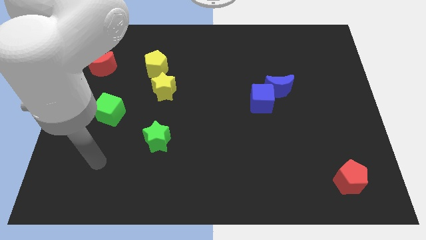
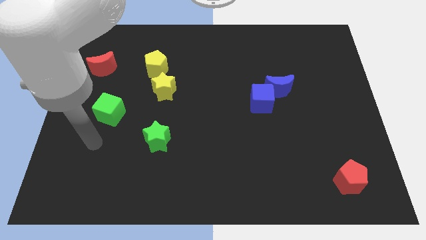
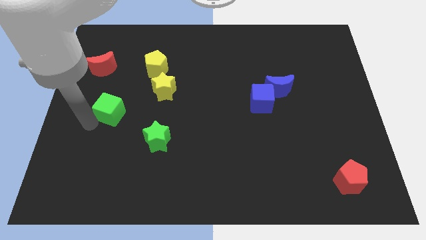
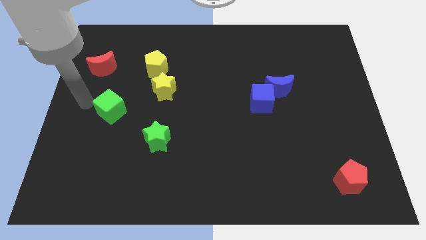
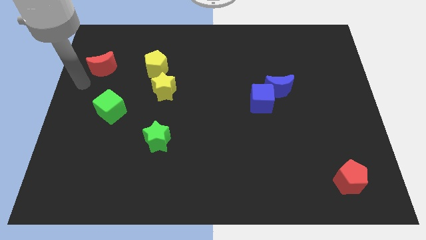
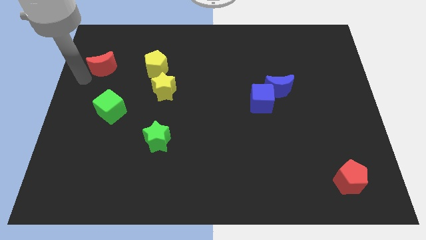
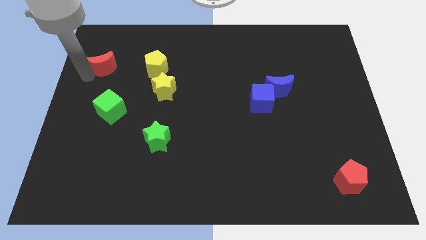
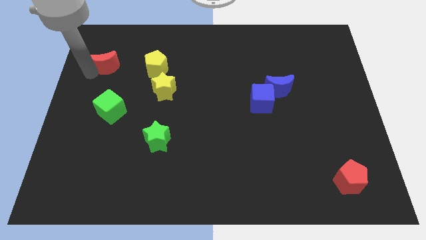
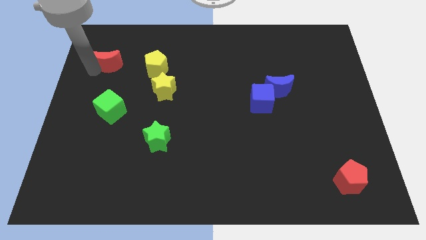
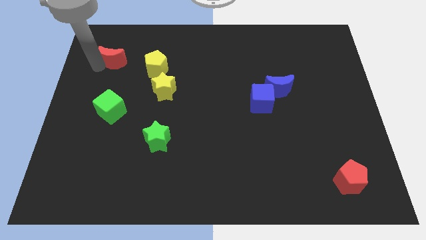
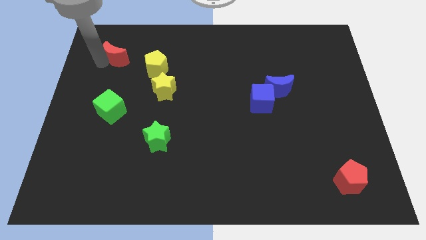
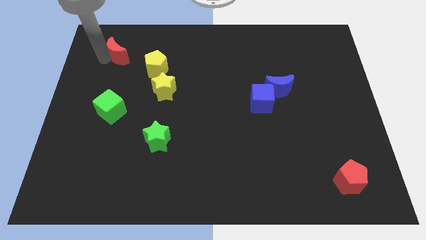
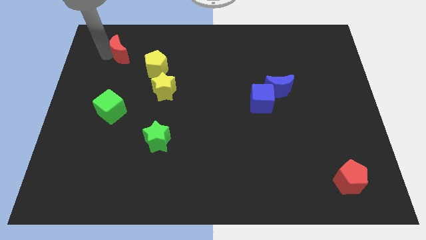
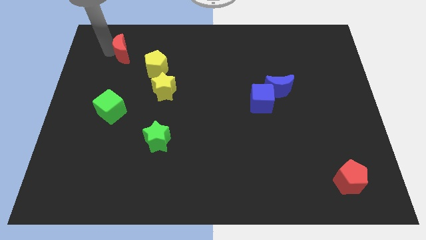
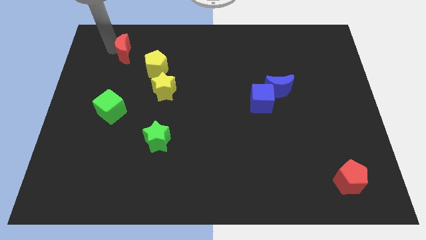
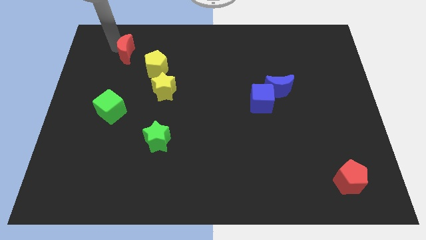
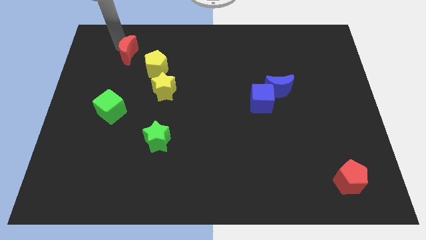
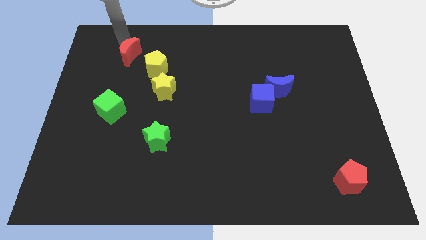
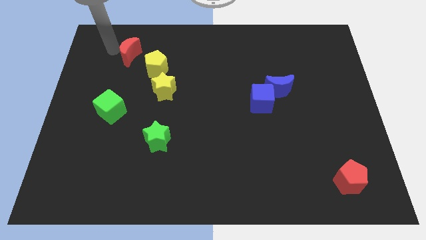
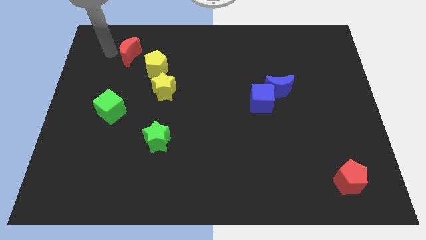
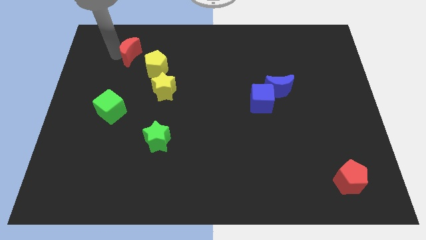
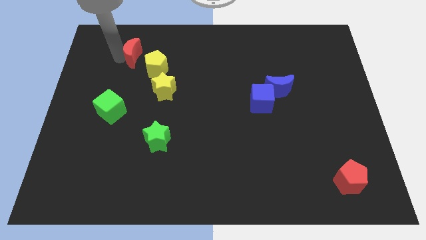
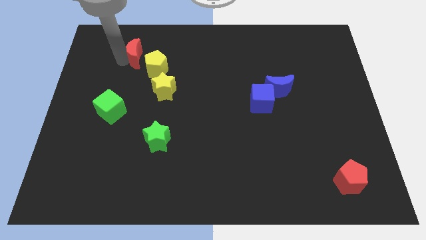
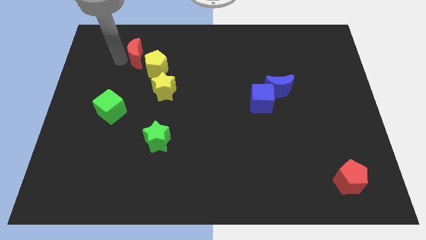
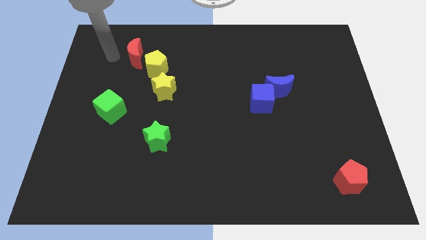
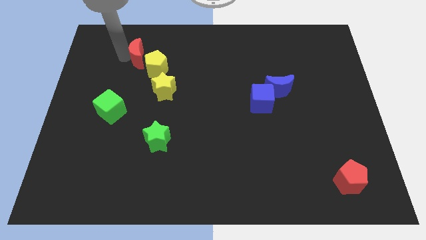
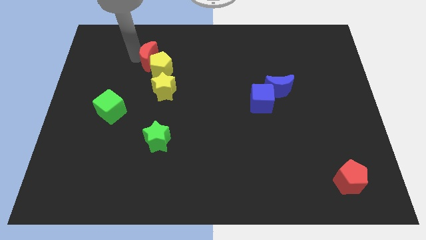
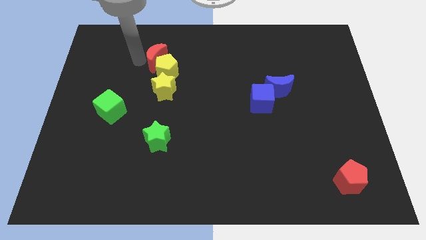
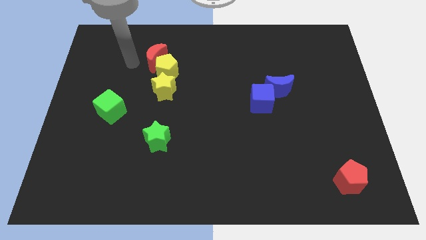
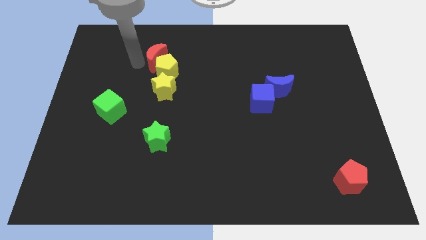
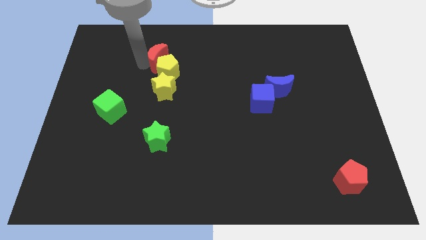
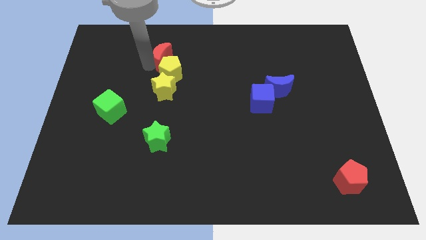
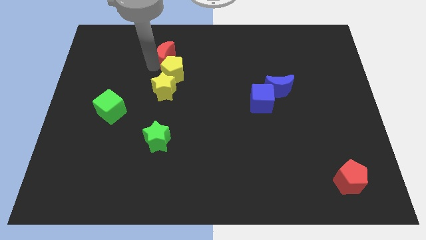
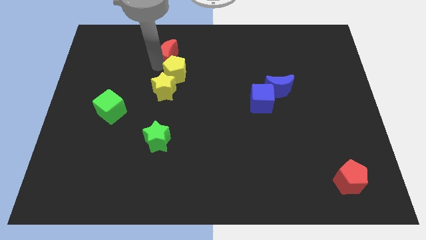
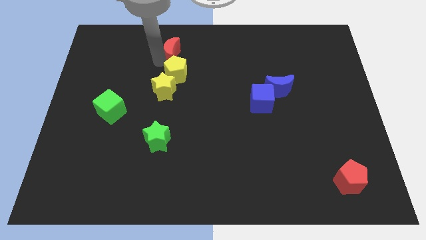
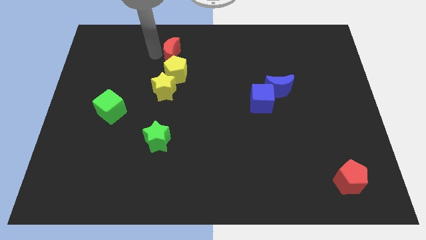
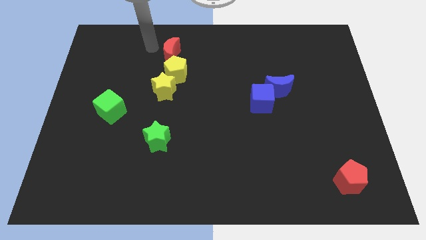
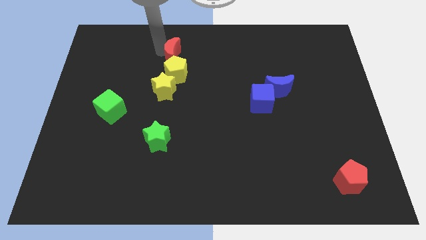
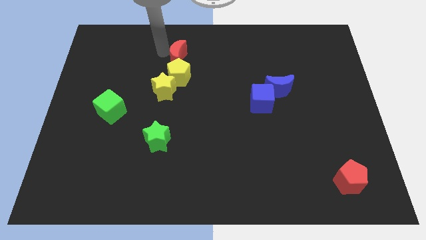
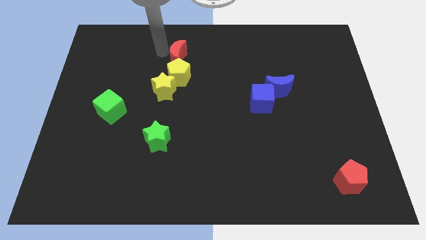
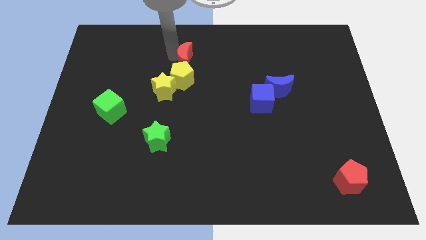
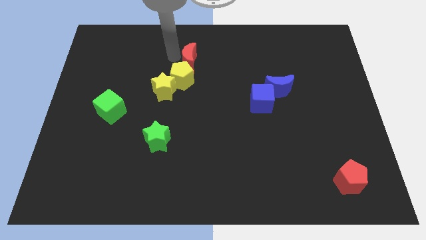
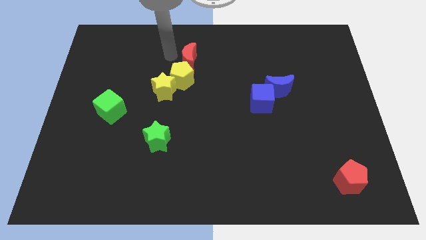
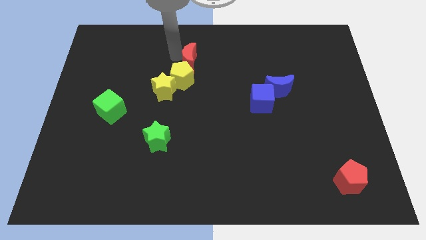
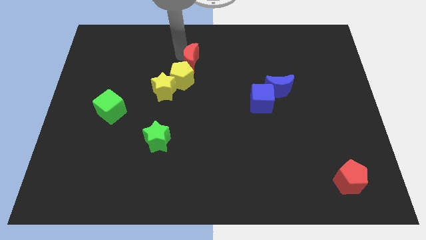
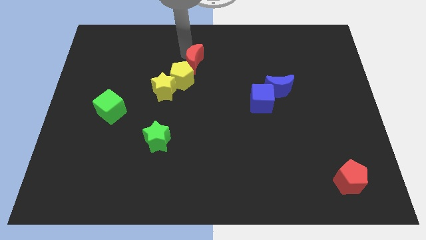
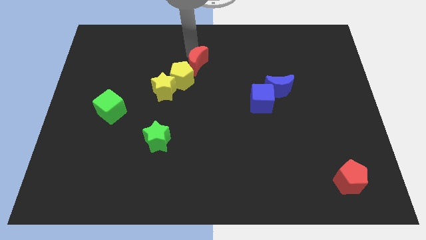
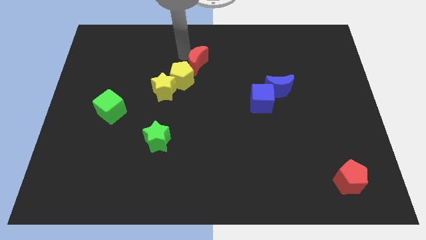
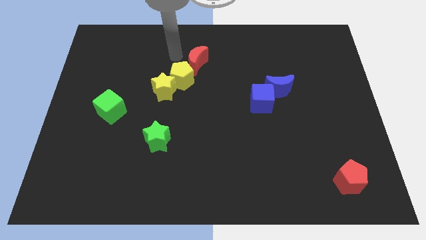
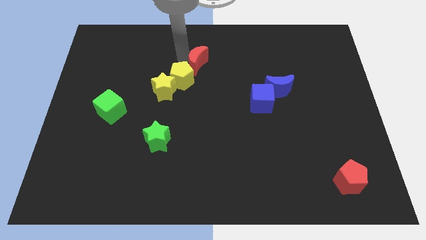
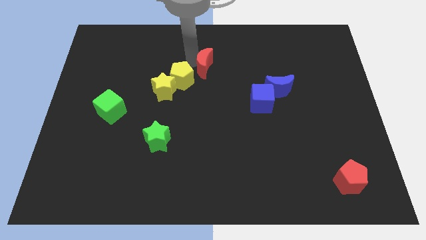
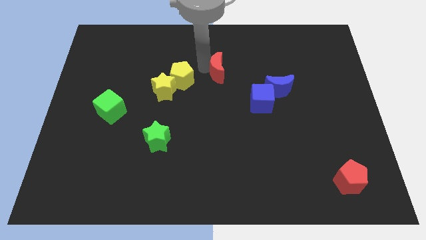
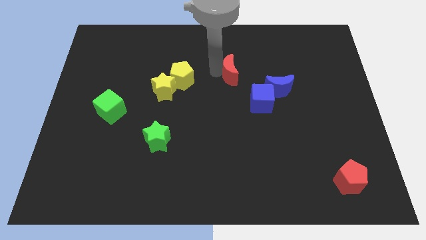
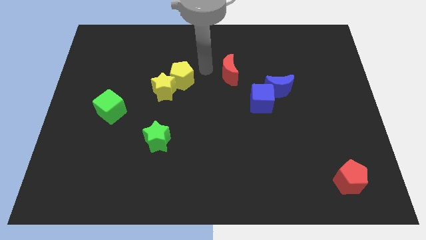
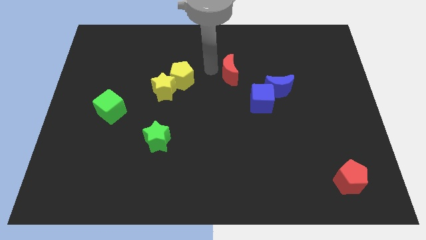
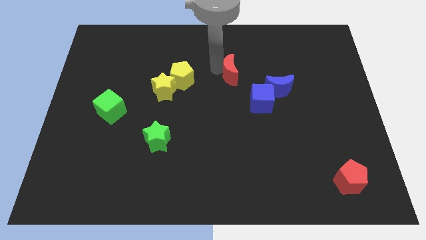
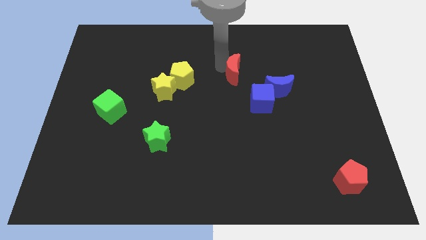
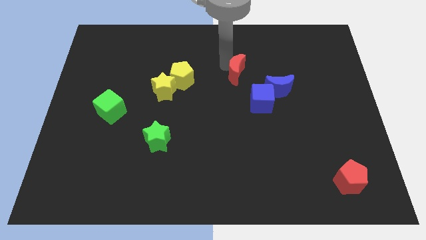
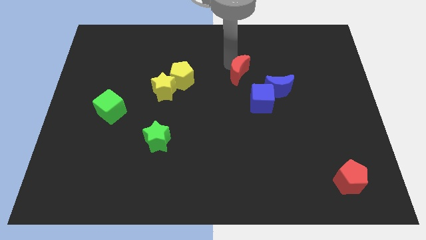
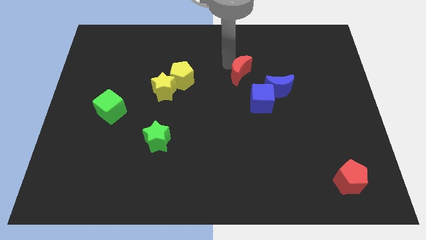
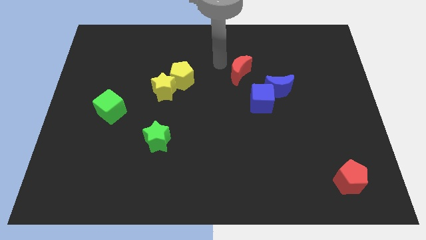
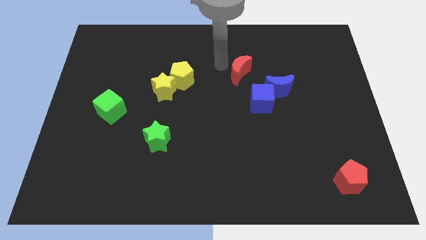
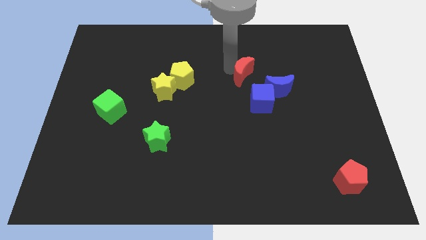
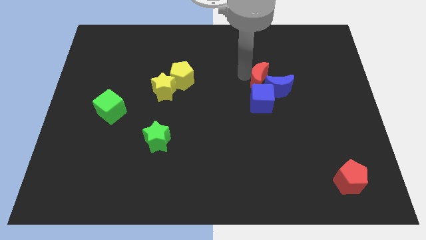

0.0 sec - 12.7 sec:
push the red moon towards the blue moon

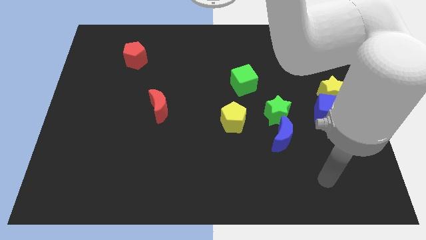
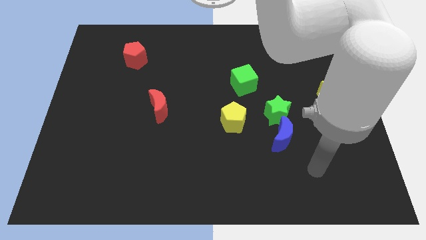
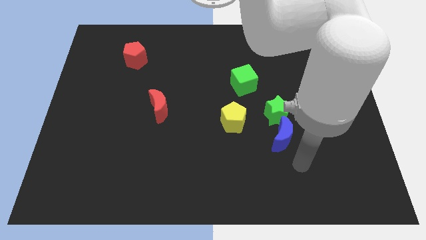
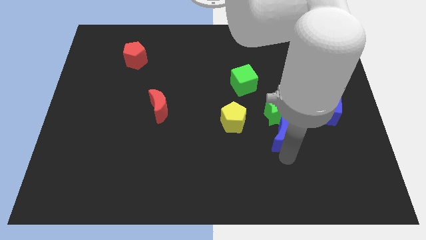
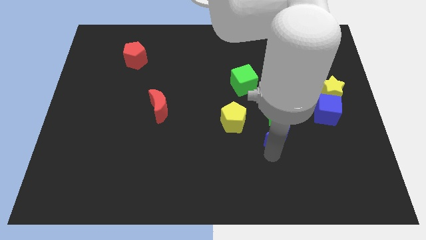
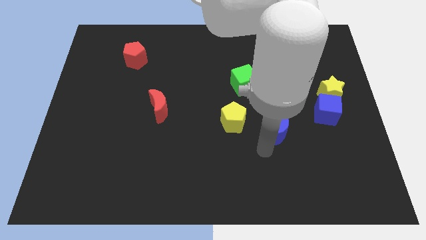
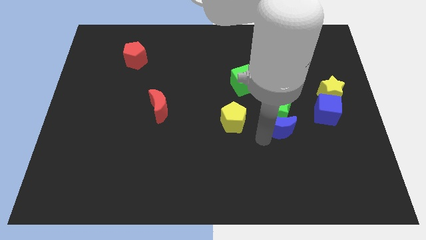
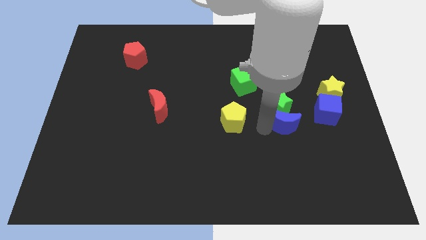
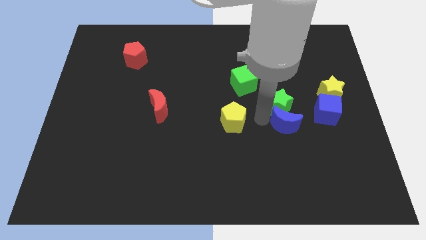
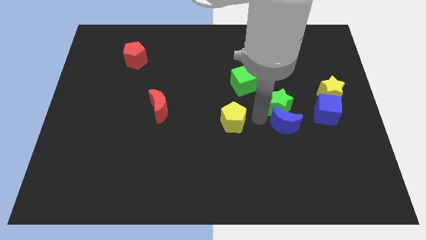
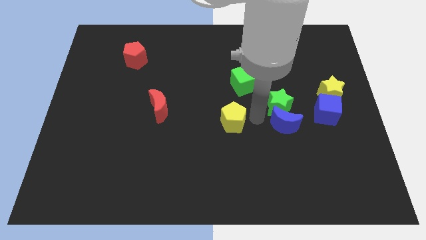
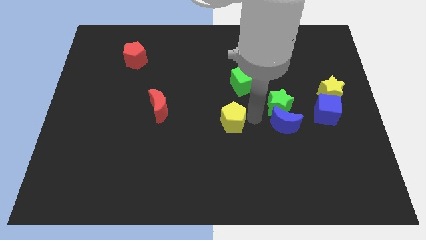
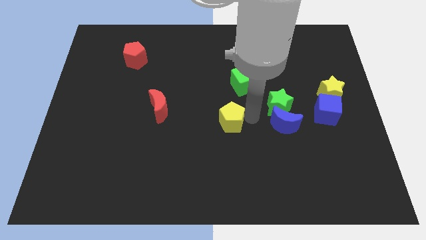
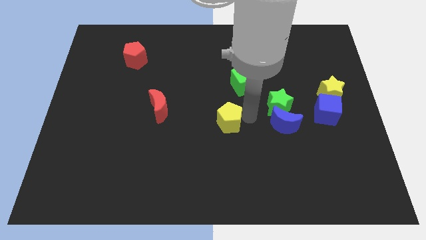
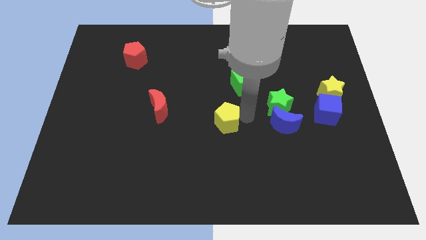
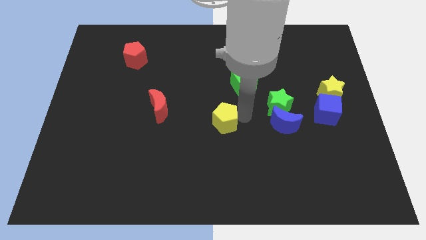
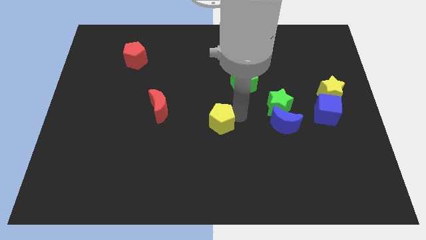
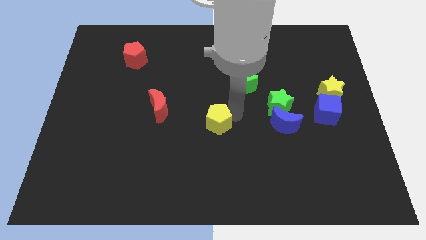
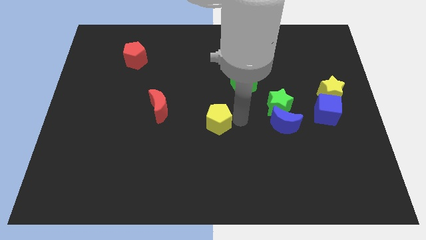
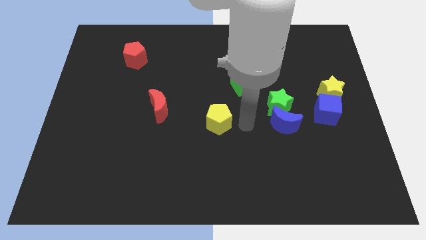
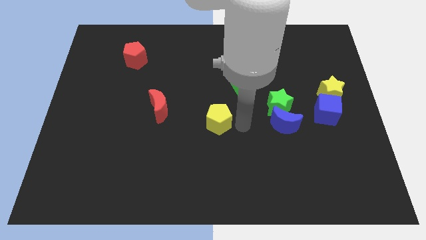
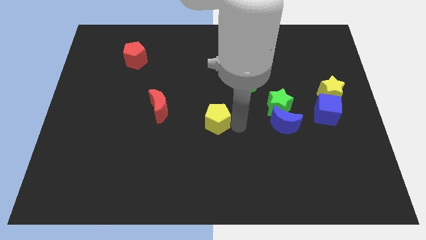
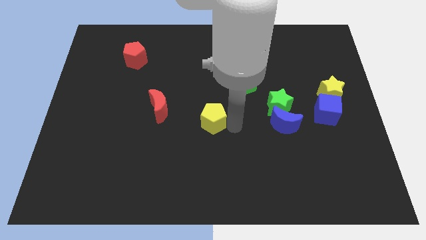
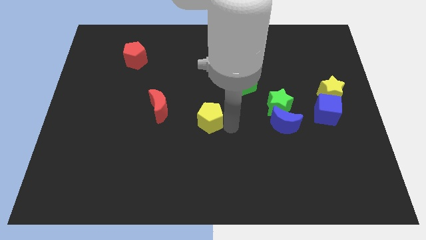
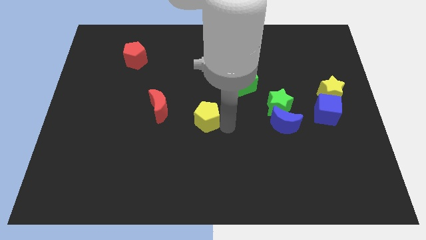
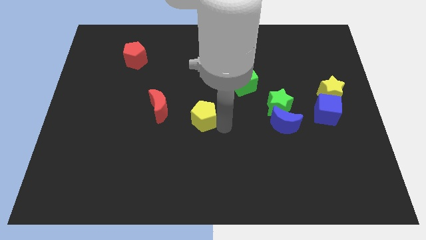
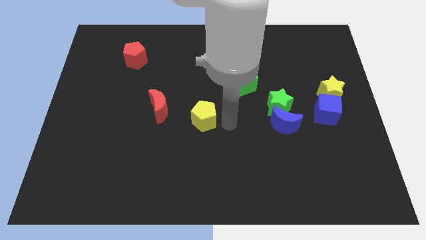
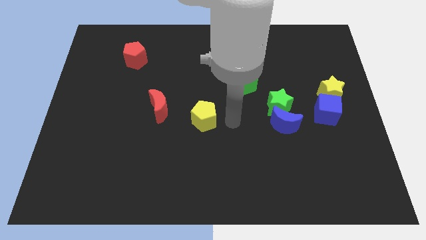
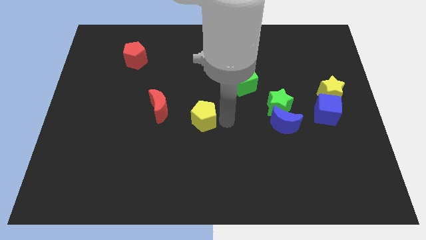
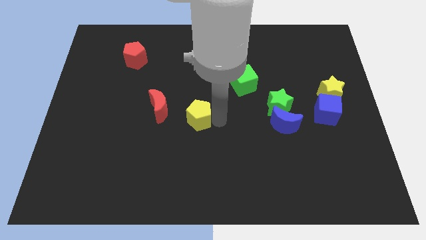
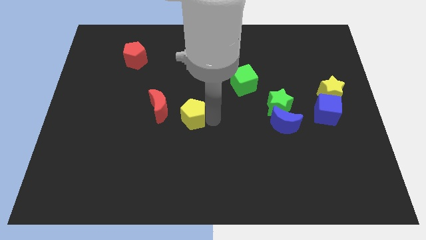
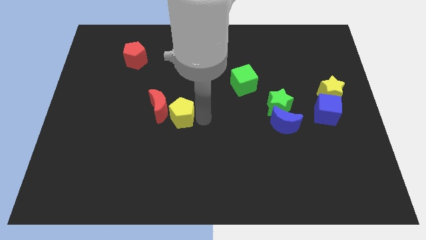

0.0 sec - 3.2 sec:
slide the yellow pentagon close to the red moon
